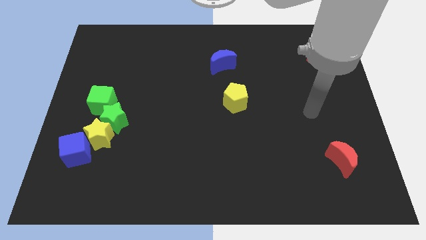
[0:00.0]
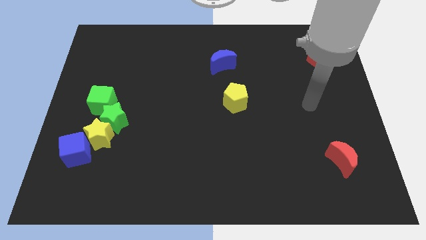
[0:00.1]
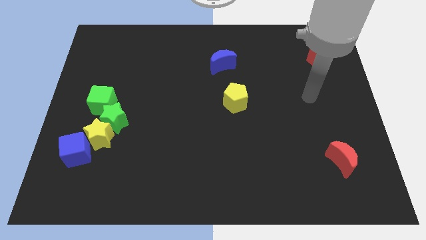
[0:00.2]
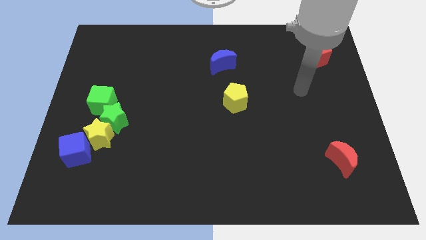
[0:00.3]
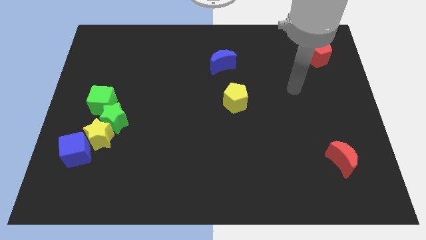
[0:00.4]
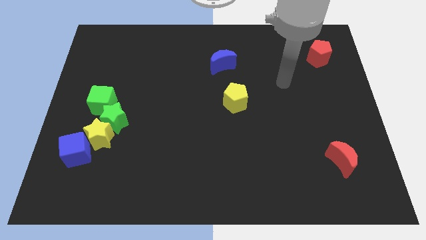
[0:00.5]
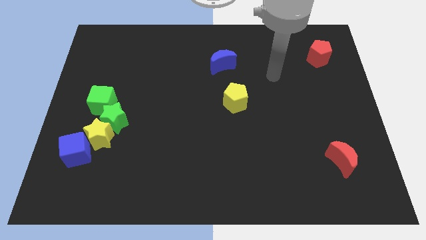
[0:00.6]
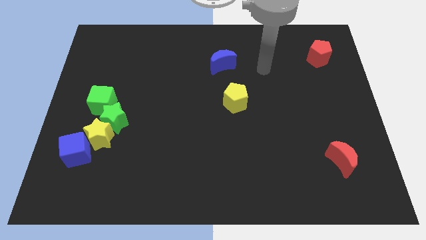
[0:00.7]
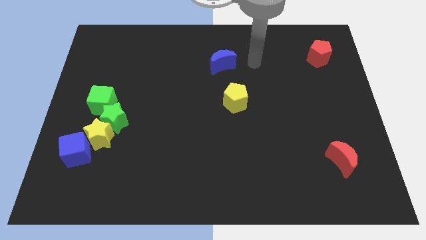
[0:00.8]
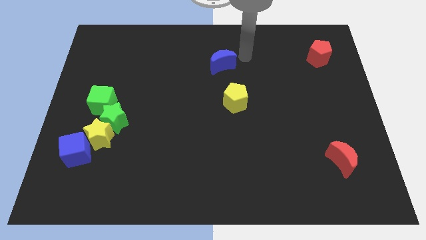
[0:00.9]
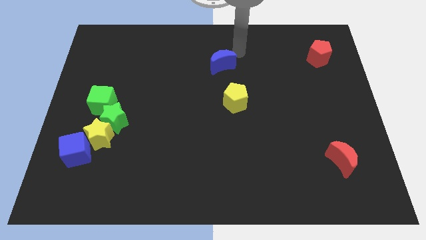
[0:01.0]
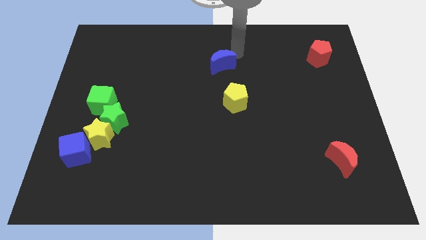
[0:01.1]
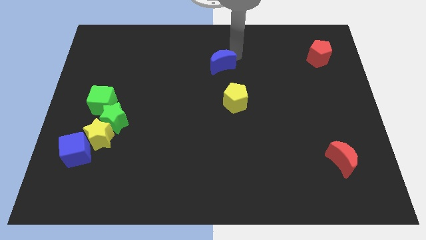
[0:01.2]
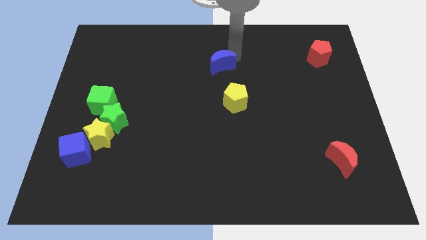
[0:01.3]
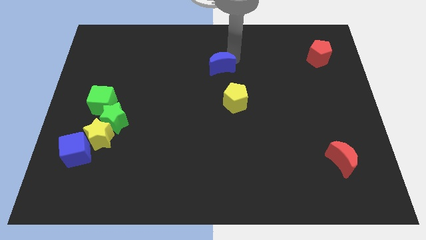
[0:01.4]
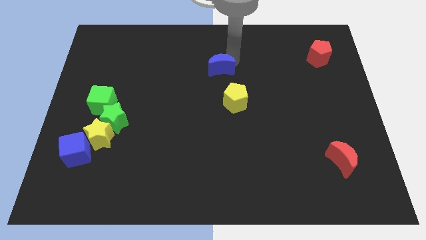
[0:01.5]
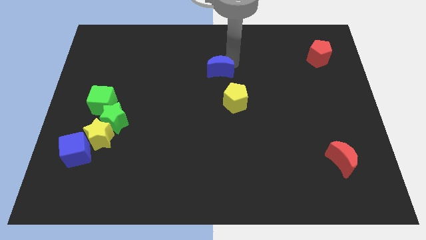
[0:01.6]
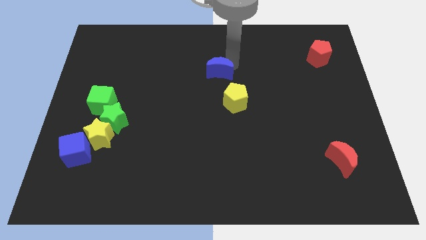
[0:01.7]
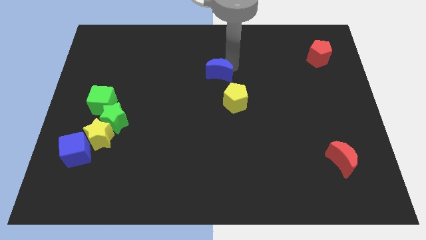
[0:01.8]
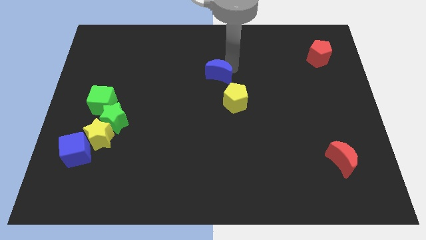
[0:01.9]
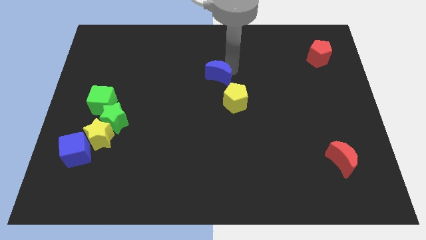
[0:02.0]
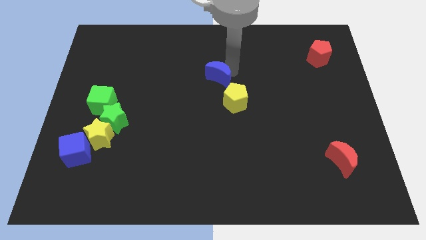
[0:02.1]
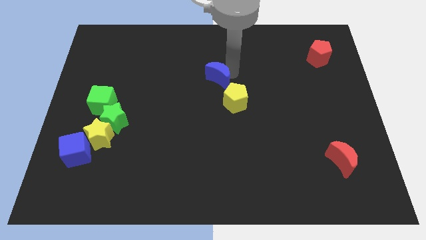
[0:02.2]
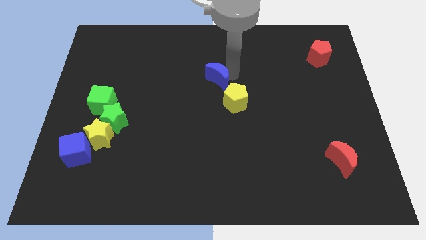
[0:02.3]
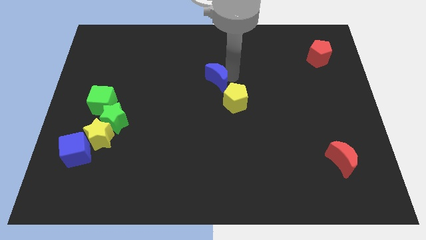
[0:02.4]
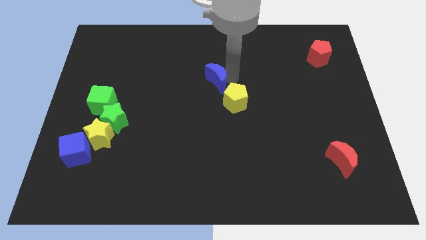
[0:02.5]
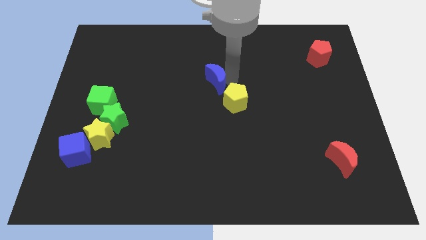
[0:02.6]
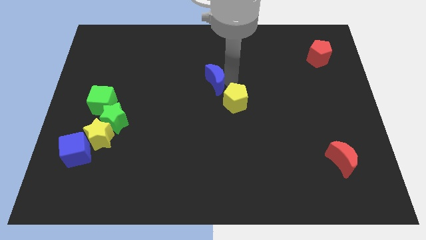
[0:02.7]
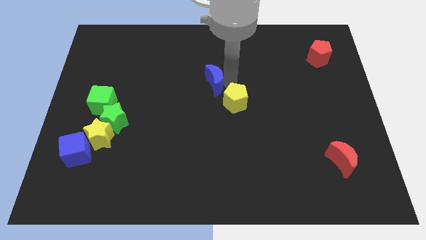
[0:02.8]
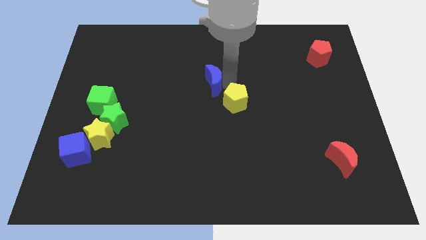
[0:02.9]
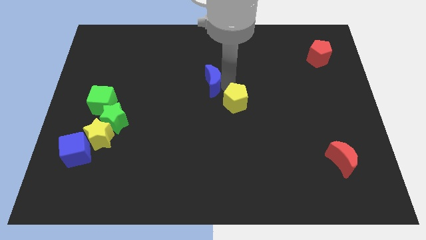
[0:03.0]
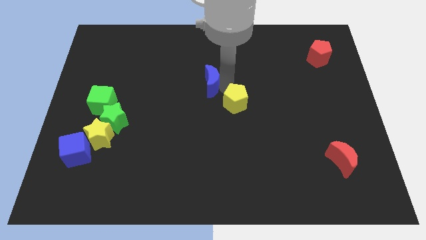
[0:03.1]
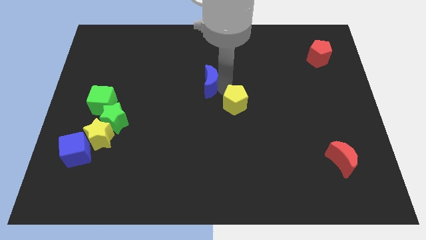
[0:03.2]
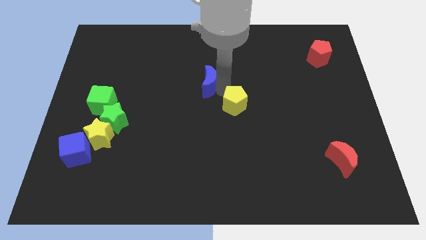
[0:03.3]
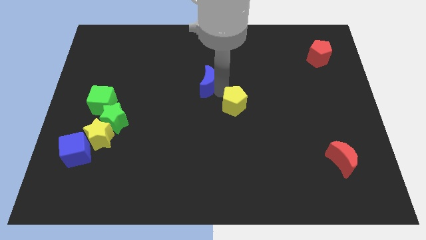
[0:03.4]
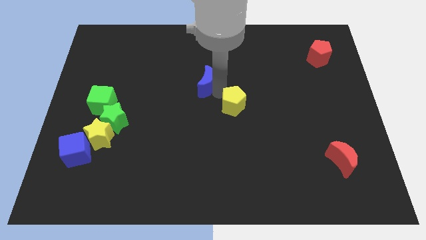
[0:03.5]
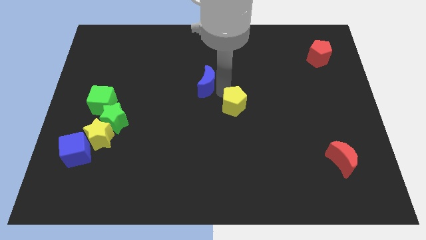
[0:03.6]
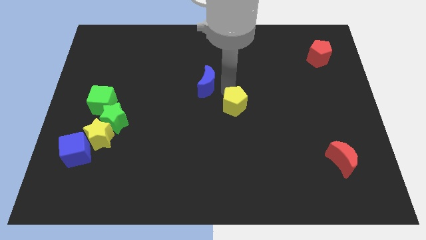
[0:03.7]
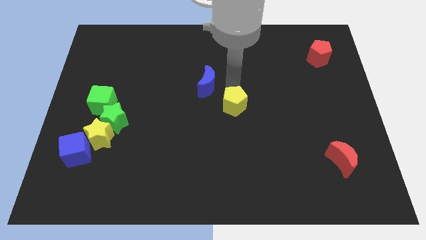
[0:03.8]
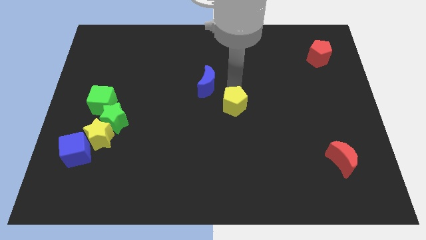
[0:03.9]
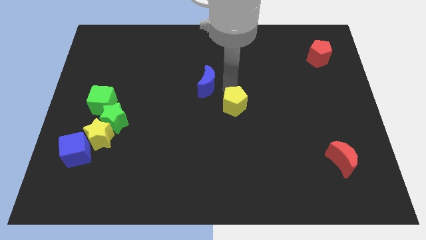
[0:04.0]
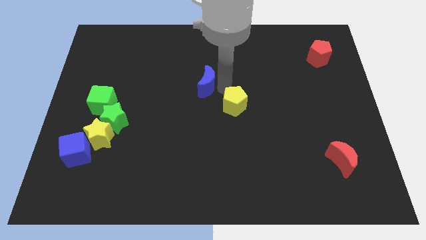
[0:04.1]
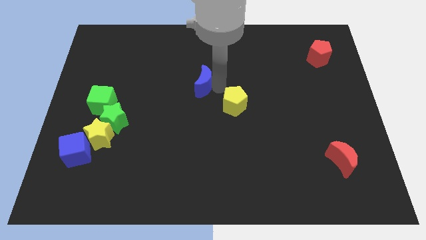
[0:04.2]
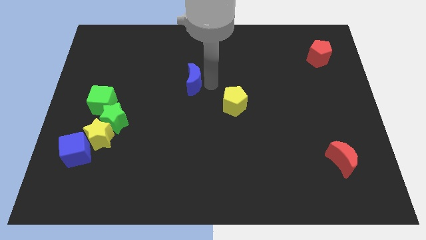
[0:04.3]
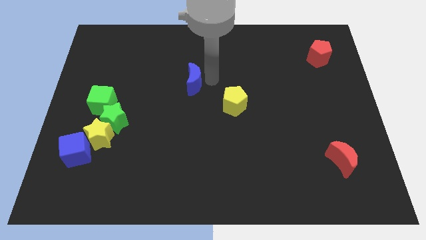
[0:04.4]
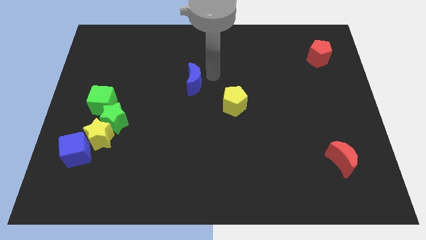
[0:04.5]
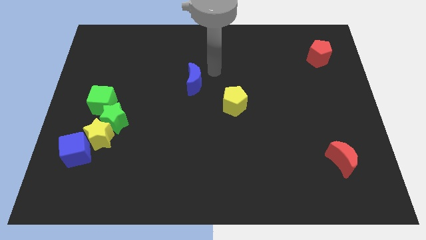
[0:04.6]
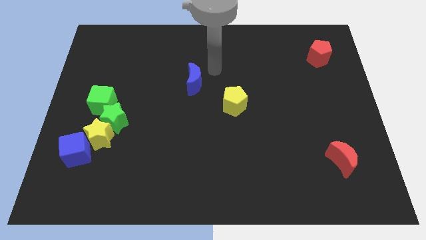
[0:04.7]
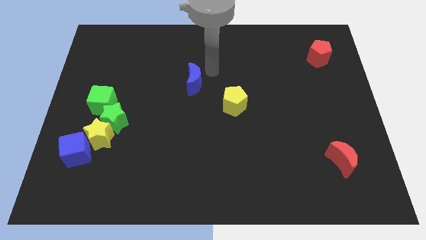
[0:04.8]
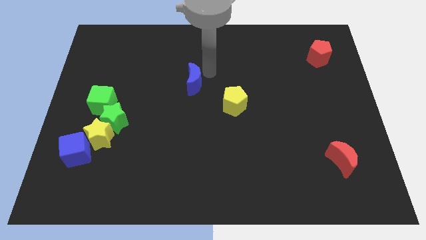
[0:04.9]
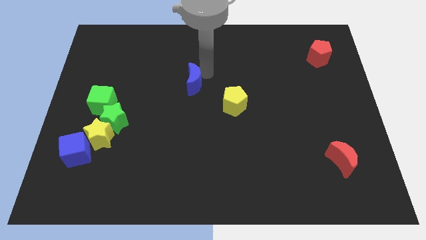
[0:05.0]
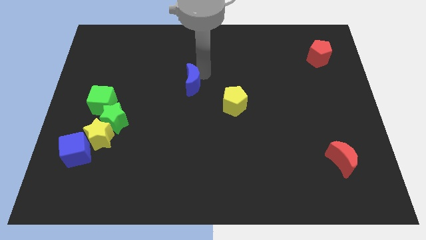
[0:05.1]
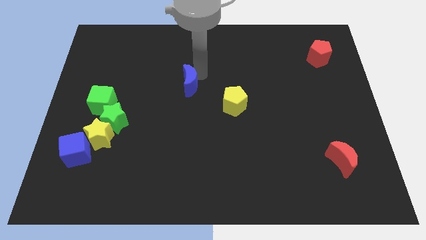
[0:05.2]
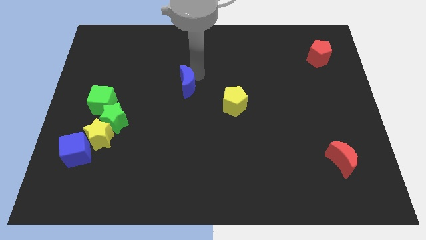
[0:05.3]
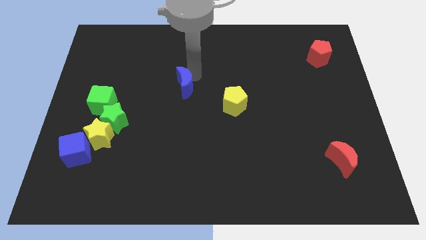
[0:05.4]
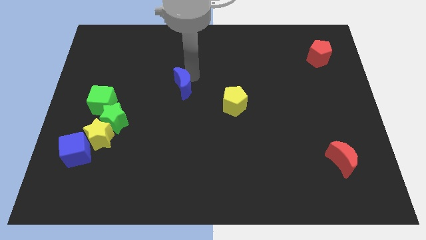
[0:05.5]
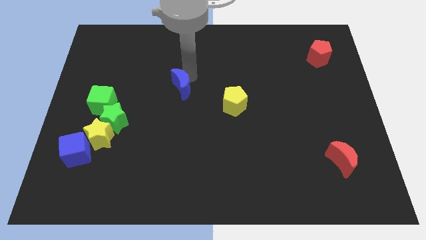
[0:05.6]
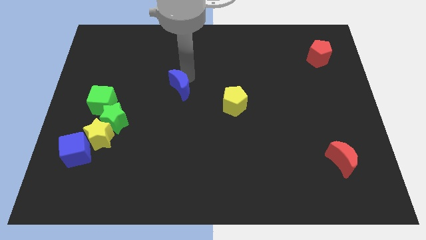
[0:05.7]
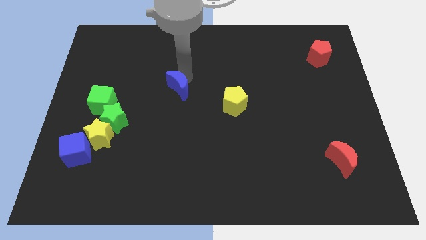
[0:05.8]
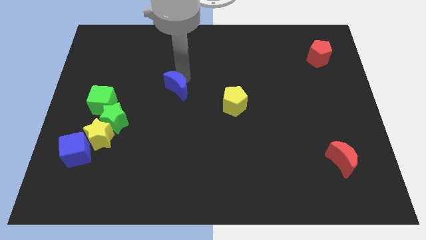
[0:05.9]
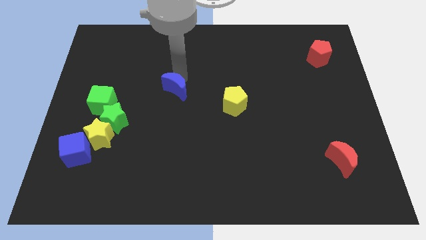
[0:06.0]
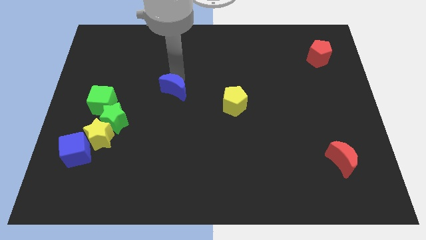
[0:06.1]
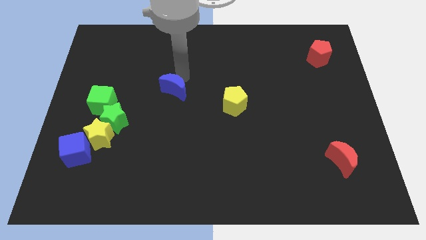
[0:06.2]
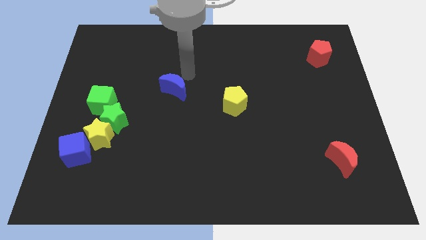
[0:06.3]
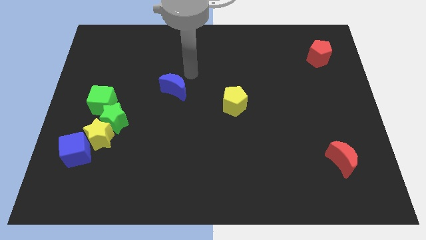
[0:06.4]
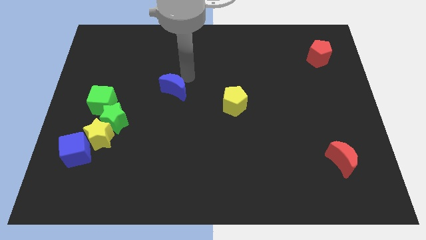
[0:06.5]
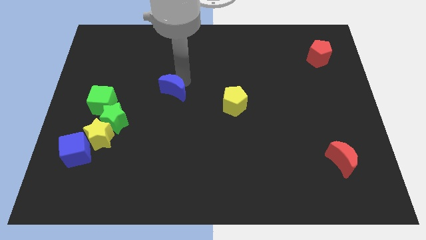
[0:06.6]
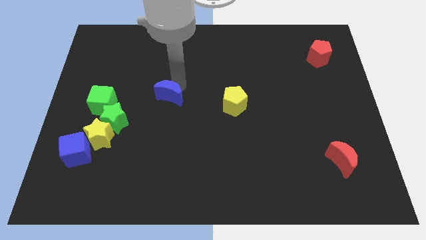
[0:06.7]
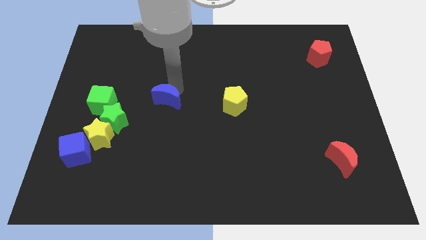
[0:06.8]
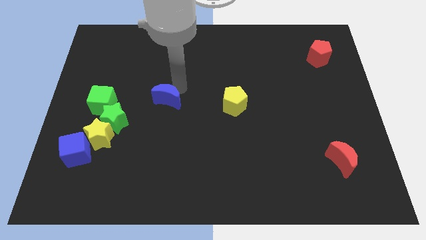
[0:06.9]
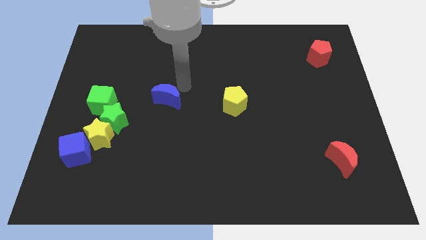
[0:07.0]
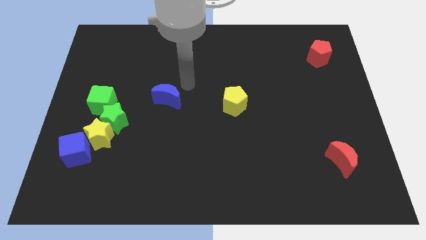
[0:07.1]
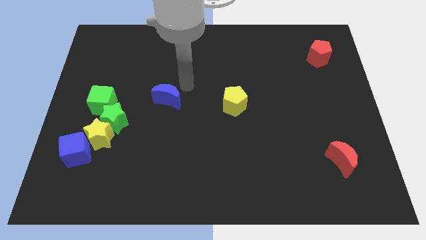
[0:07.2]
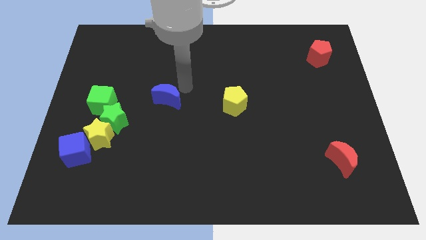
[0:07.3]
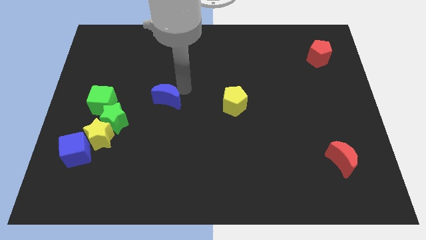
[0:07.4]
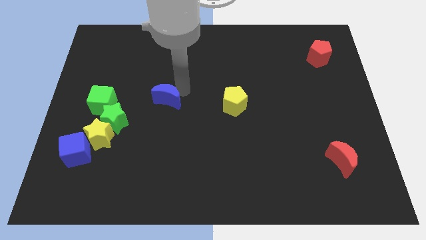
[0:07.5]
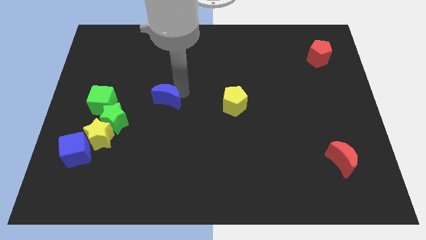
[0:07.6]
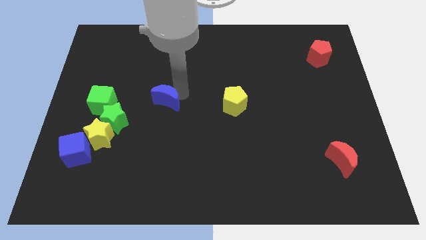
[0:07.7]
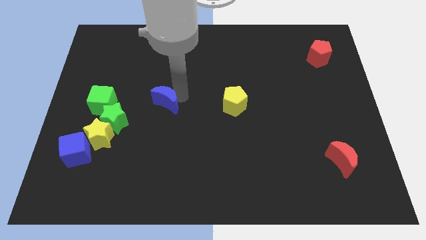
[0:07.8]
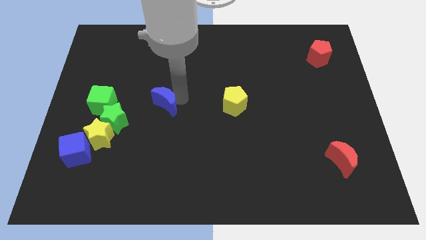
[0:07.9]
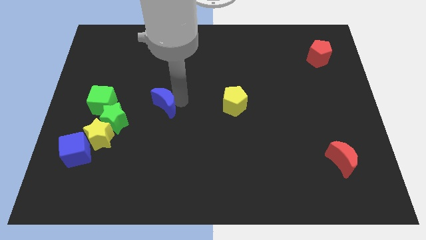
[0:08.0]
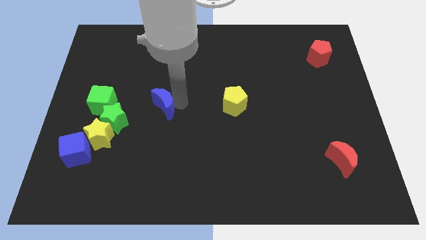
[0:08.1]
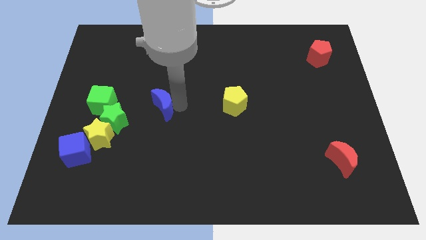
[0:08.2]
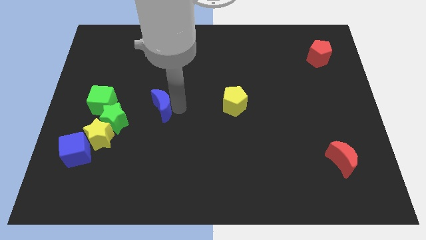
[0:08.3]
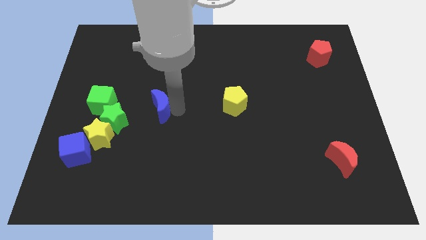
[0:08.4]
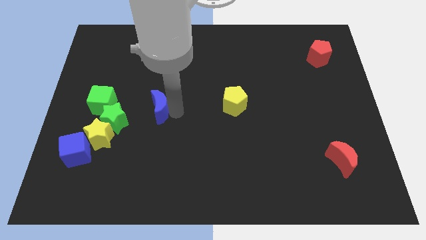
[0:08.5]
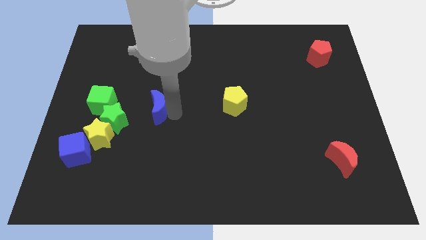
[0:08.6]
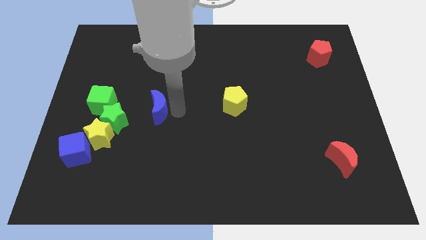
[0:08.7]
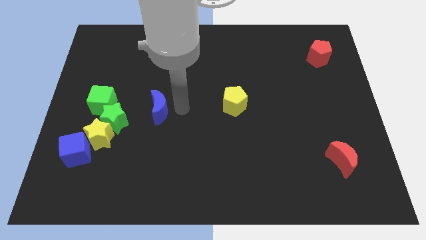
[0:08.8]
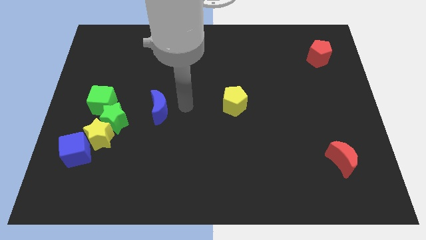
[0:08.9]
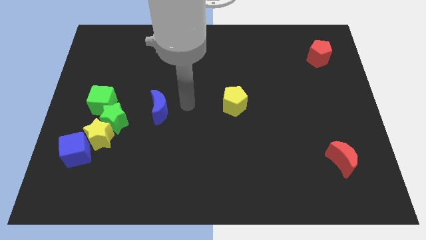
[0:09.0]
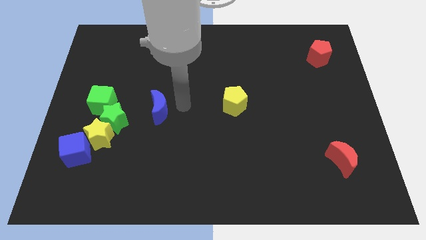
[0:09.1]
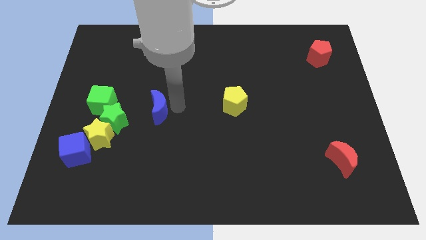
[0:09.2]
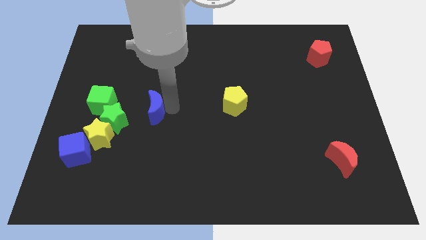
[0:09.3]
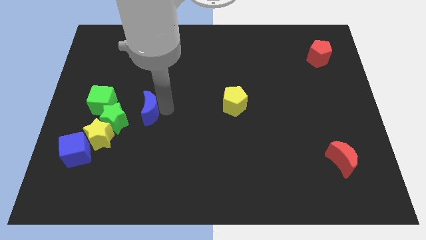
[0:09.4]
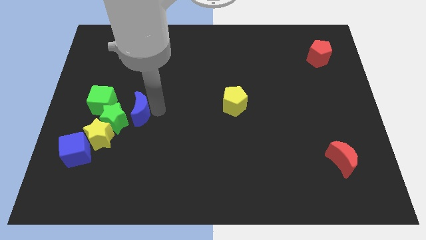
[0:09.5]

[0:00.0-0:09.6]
slide the blue moon towards the green star
